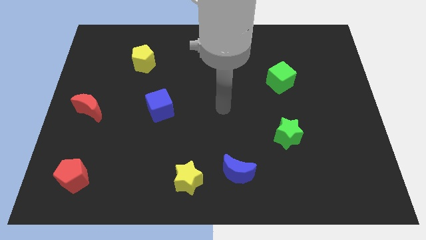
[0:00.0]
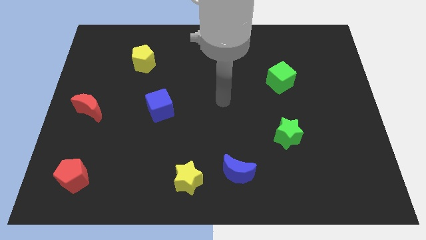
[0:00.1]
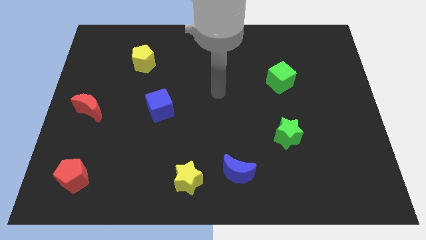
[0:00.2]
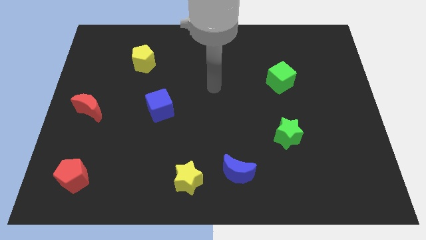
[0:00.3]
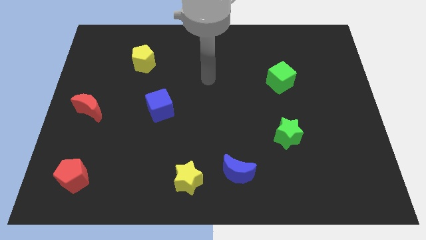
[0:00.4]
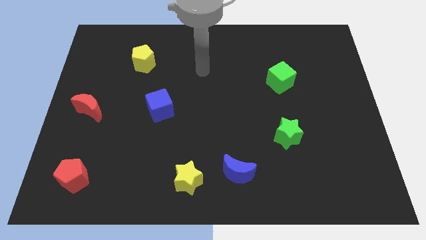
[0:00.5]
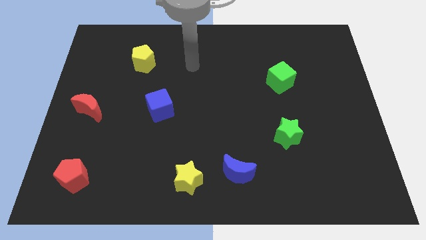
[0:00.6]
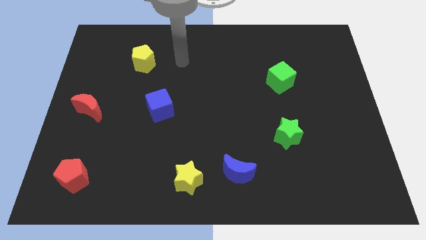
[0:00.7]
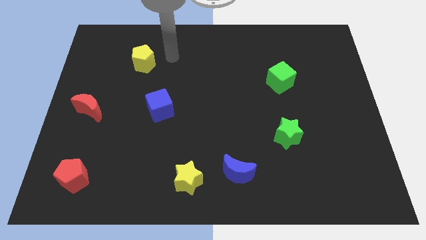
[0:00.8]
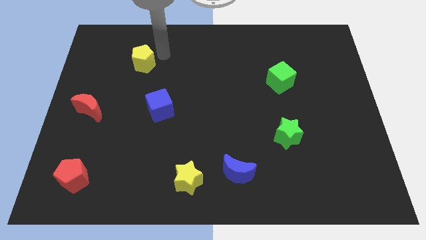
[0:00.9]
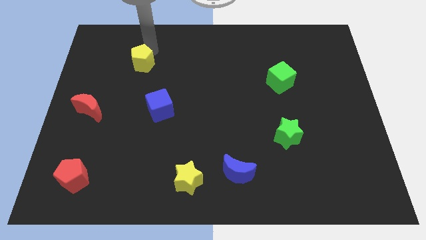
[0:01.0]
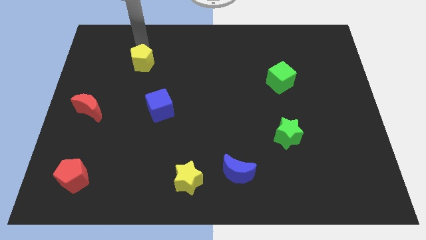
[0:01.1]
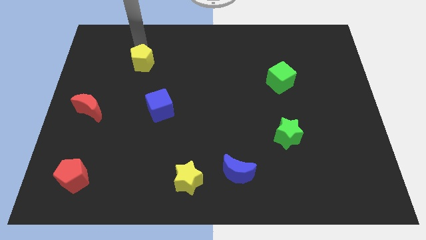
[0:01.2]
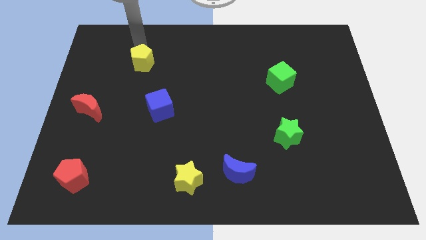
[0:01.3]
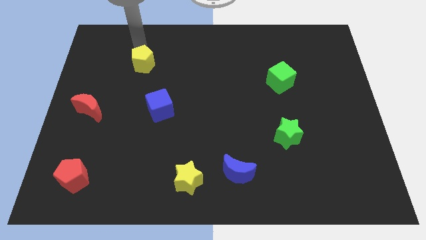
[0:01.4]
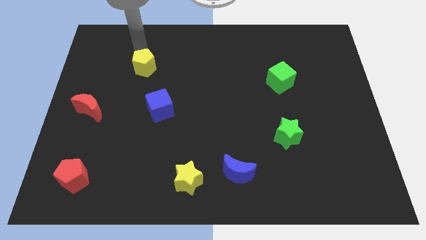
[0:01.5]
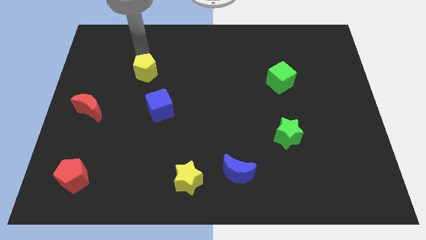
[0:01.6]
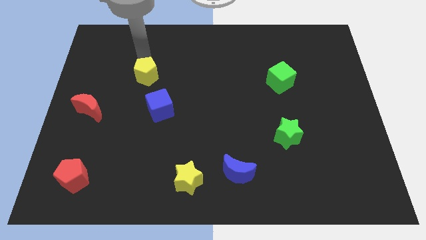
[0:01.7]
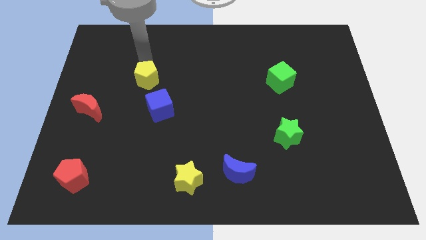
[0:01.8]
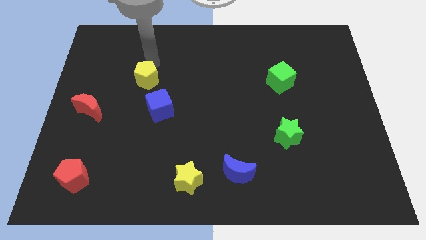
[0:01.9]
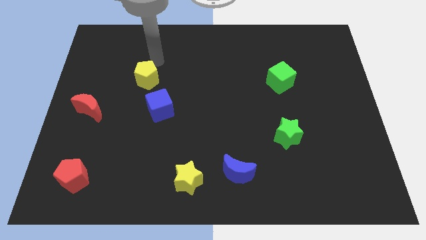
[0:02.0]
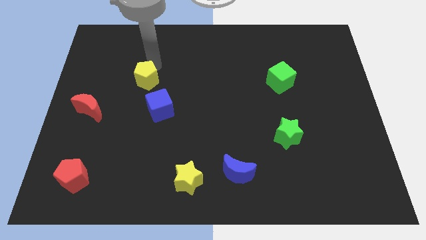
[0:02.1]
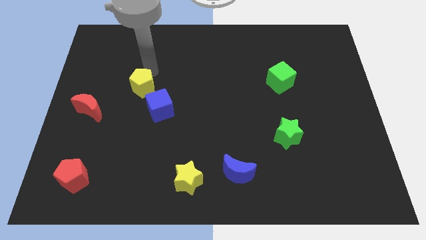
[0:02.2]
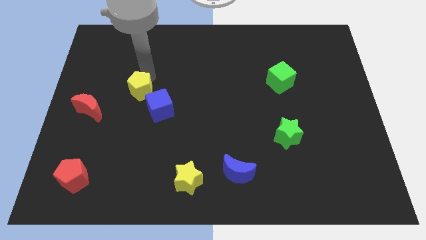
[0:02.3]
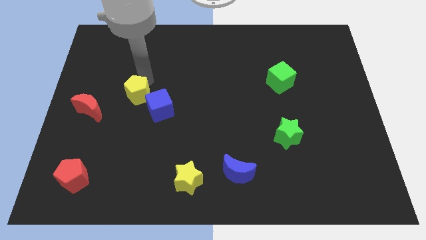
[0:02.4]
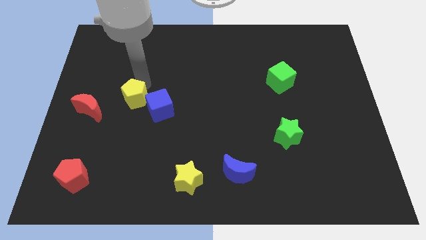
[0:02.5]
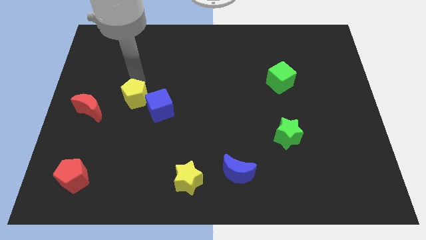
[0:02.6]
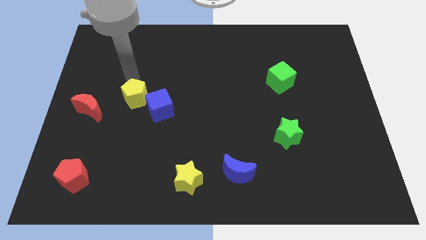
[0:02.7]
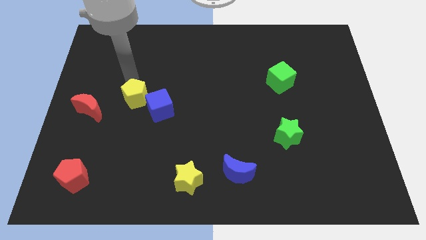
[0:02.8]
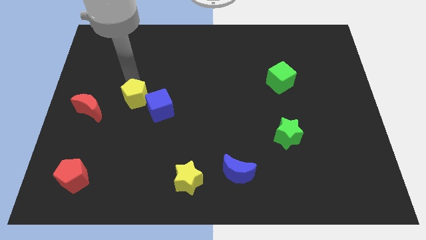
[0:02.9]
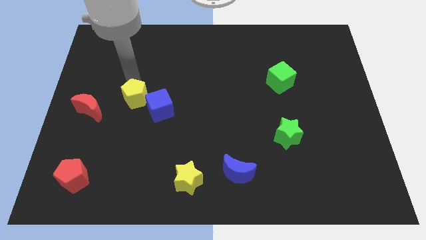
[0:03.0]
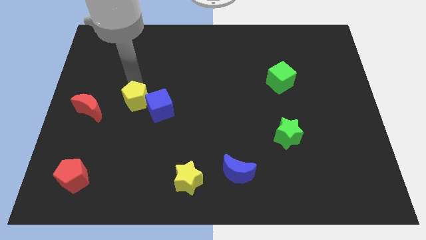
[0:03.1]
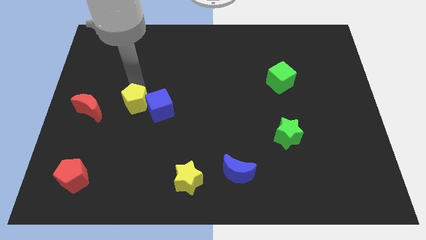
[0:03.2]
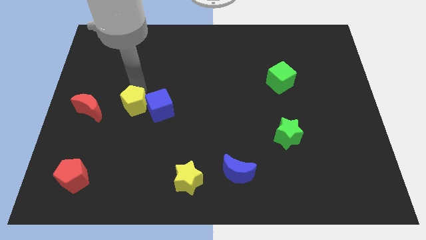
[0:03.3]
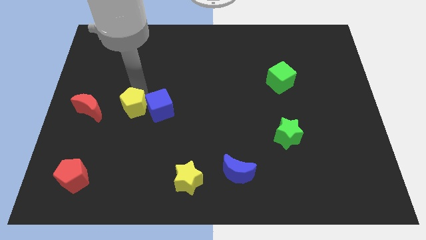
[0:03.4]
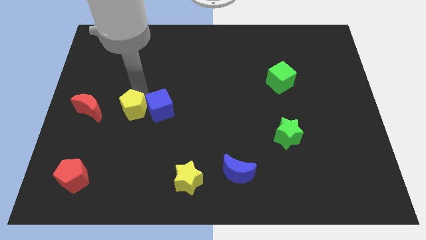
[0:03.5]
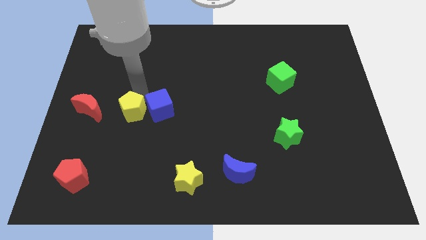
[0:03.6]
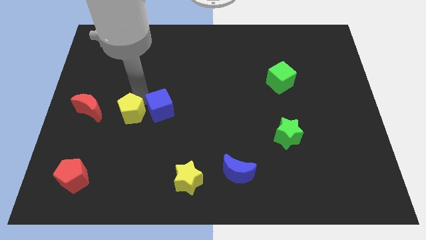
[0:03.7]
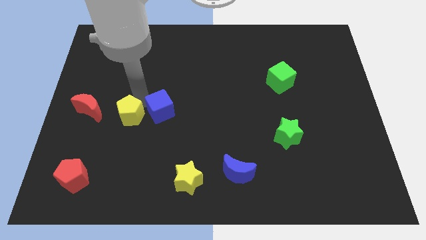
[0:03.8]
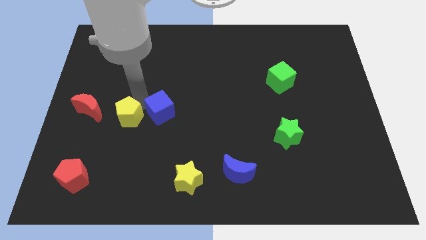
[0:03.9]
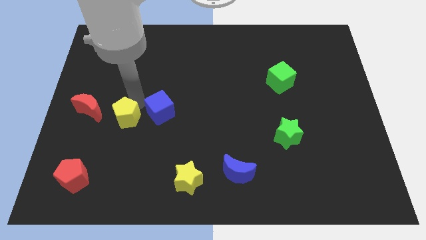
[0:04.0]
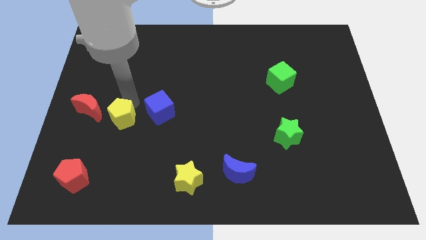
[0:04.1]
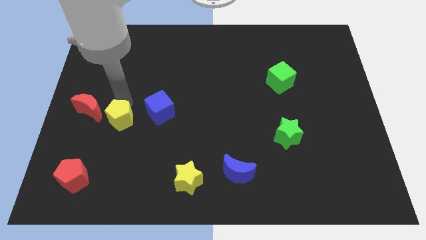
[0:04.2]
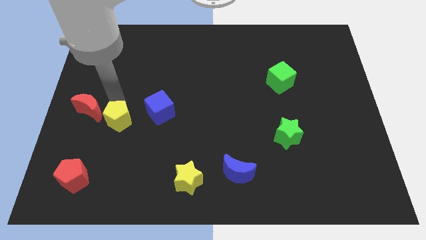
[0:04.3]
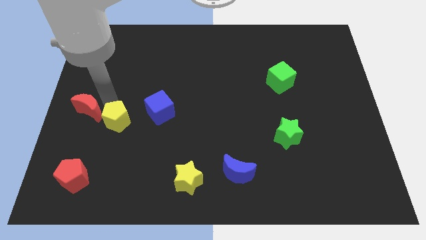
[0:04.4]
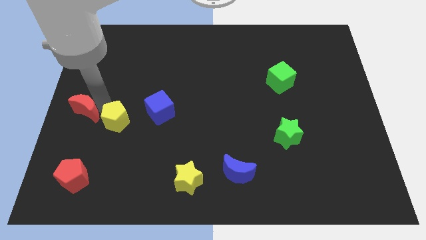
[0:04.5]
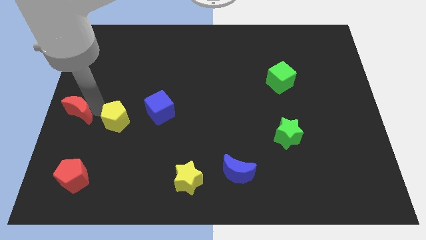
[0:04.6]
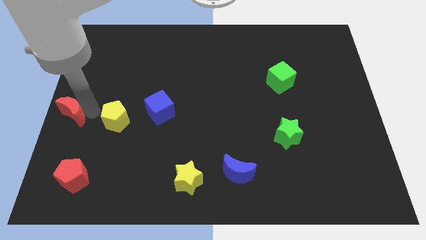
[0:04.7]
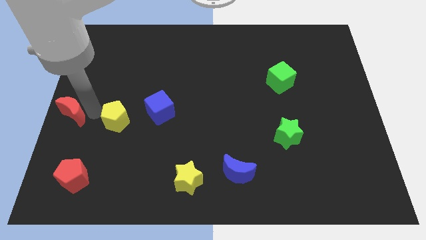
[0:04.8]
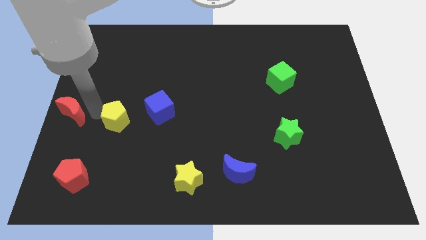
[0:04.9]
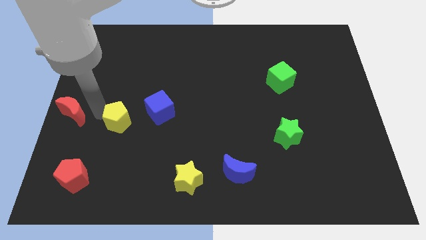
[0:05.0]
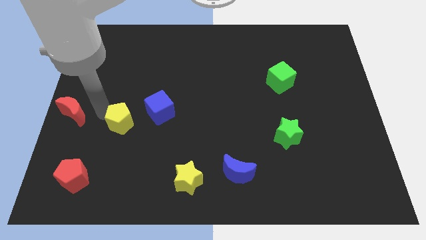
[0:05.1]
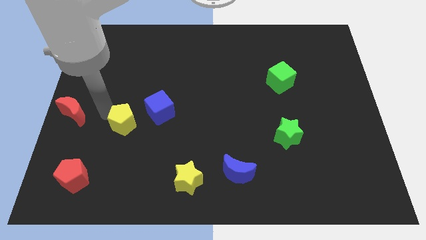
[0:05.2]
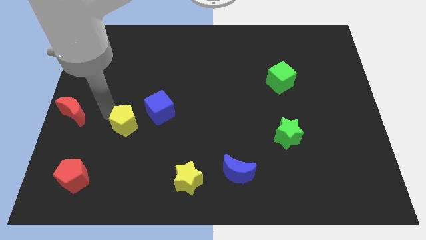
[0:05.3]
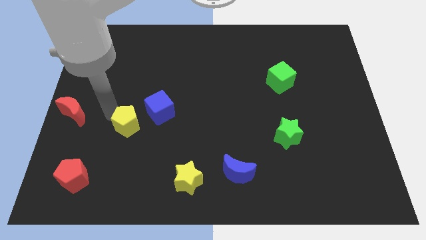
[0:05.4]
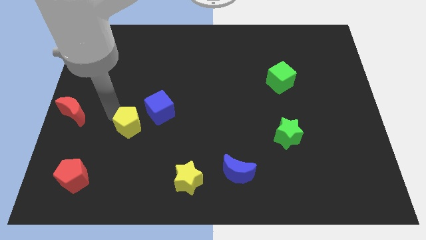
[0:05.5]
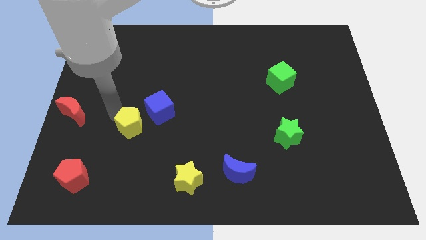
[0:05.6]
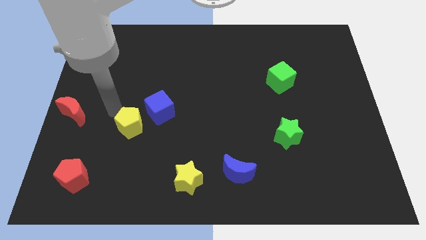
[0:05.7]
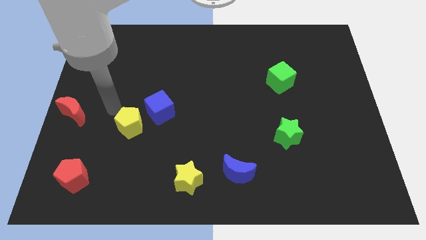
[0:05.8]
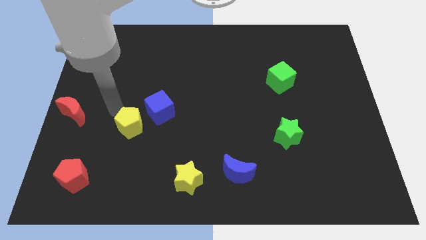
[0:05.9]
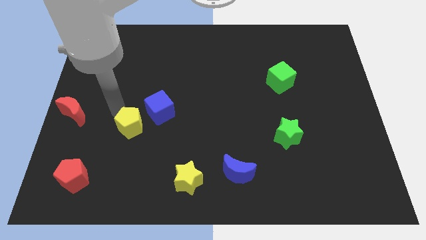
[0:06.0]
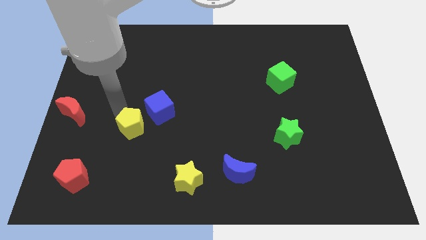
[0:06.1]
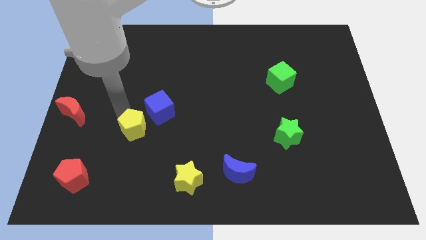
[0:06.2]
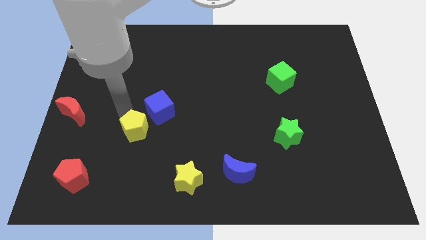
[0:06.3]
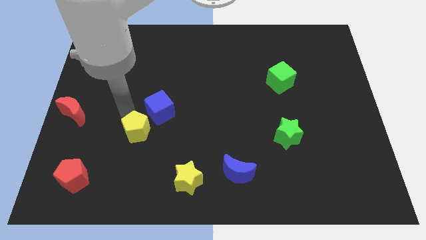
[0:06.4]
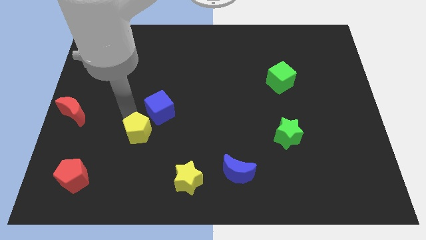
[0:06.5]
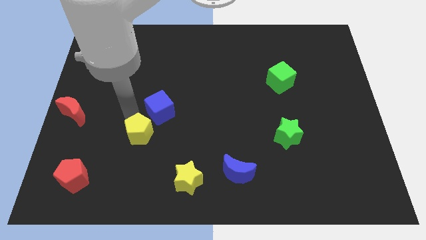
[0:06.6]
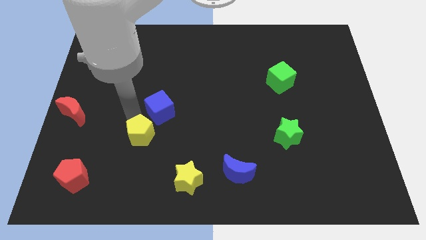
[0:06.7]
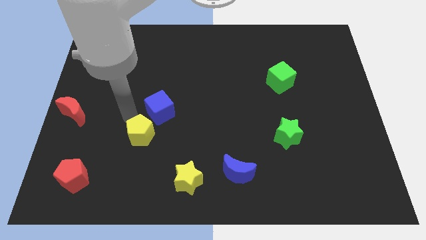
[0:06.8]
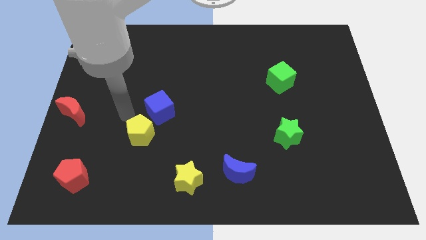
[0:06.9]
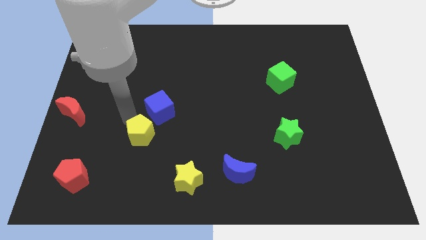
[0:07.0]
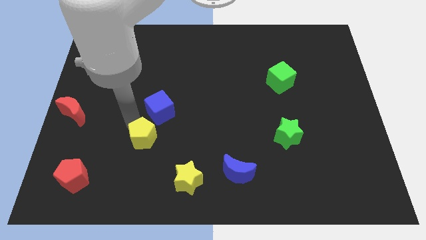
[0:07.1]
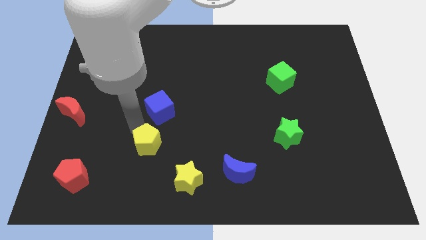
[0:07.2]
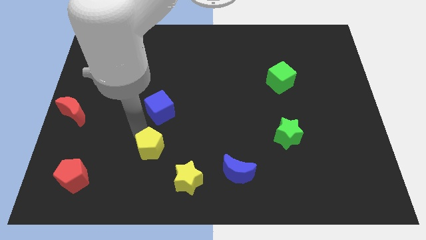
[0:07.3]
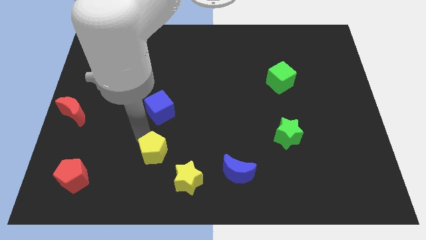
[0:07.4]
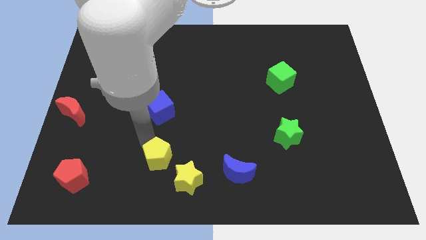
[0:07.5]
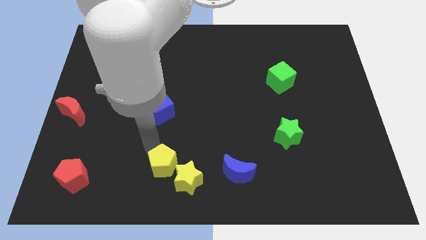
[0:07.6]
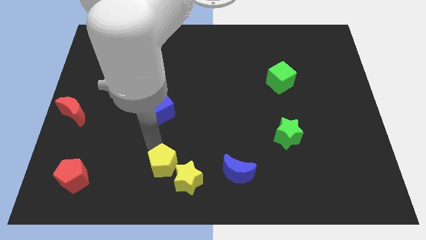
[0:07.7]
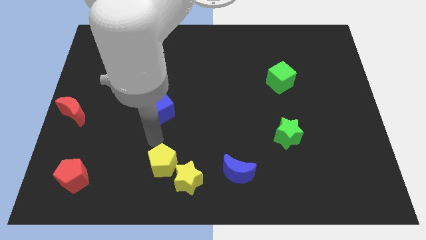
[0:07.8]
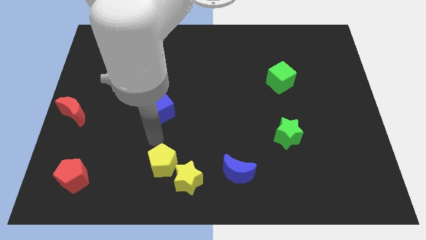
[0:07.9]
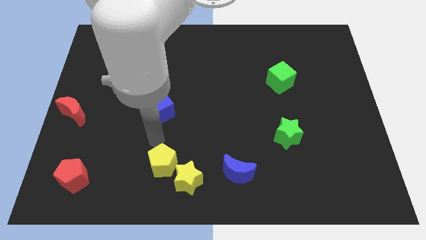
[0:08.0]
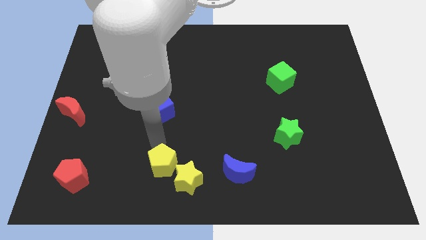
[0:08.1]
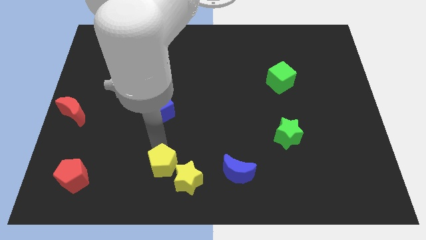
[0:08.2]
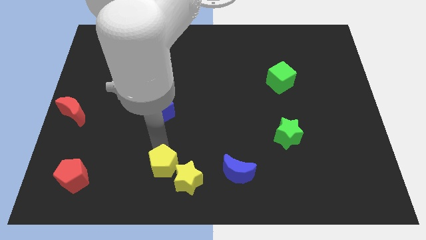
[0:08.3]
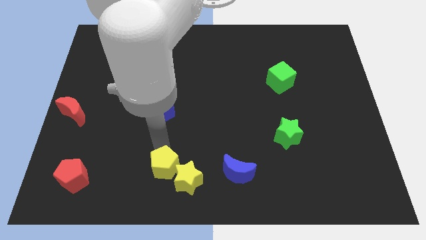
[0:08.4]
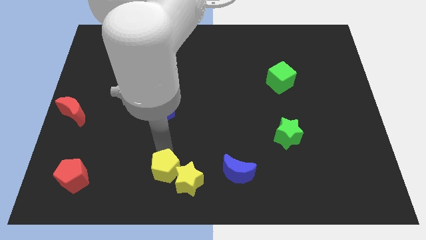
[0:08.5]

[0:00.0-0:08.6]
put the yellow pentagon to the bottom side
